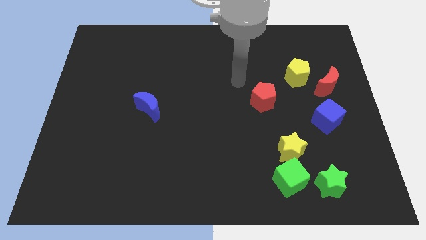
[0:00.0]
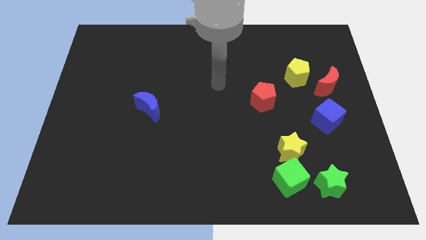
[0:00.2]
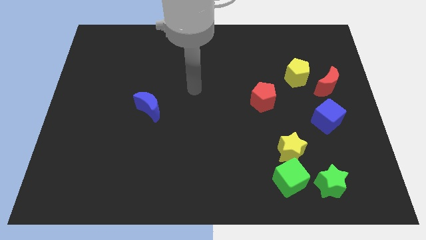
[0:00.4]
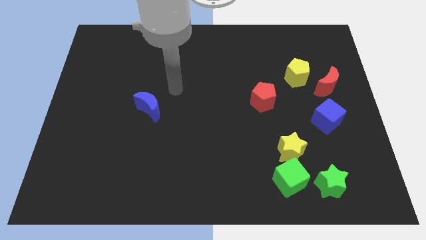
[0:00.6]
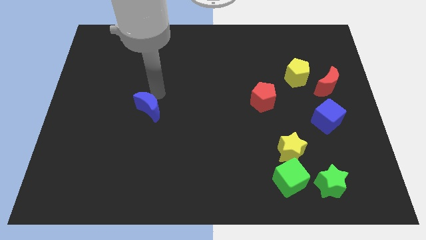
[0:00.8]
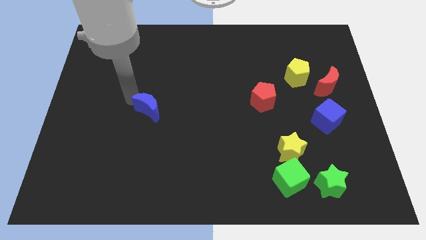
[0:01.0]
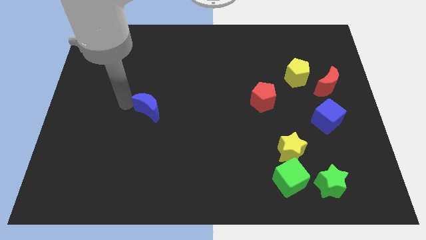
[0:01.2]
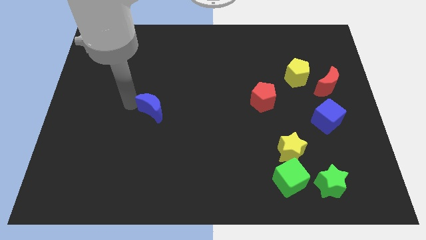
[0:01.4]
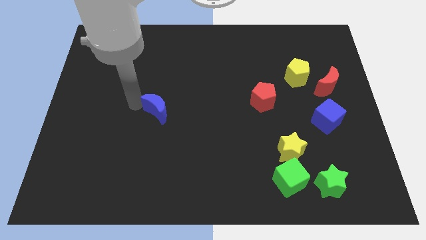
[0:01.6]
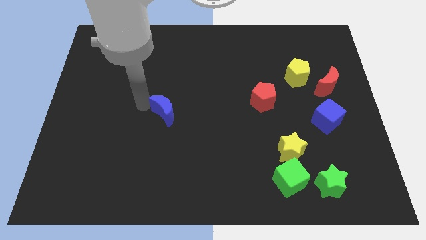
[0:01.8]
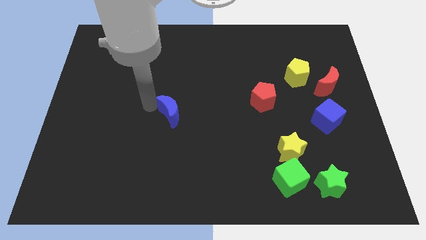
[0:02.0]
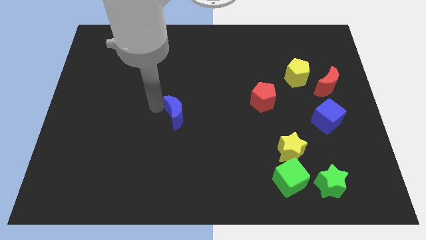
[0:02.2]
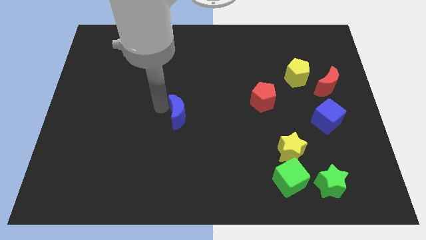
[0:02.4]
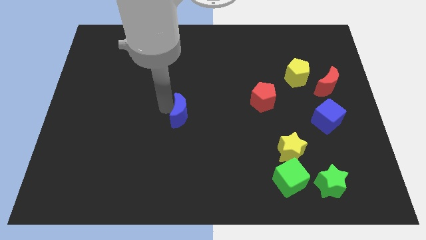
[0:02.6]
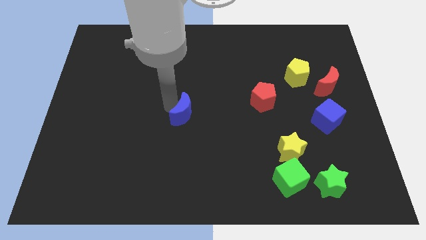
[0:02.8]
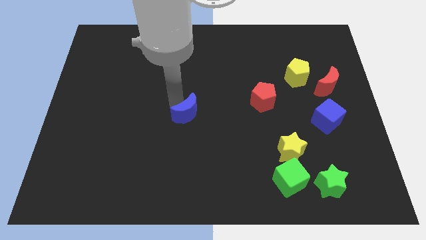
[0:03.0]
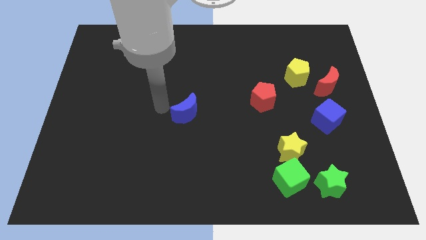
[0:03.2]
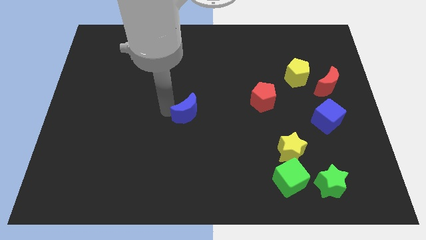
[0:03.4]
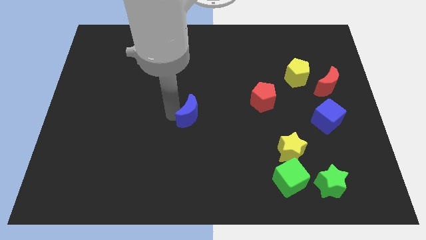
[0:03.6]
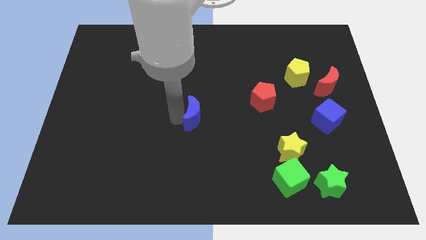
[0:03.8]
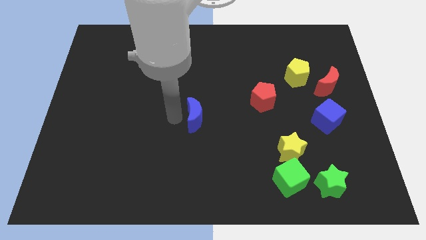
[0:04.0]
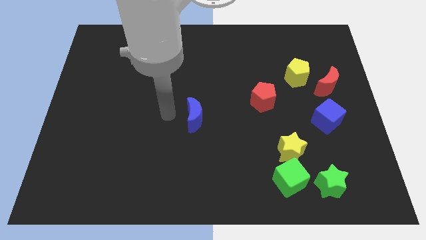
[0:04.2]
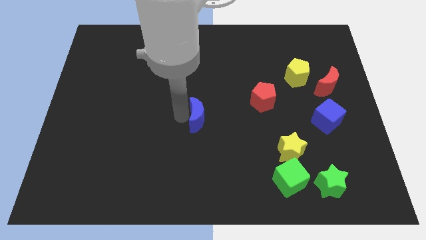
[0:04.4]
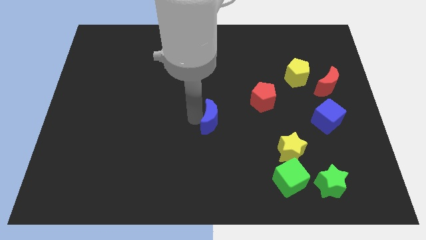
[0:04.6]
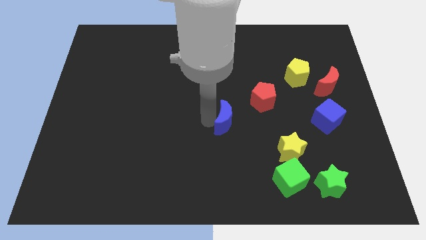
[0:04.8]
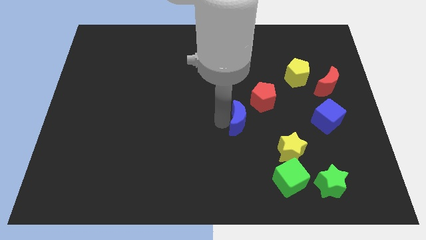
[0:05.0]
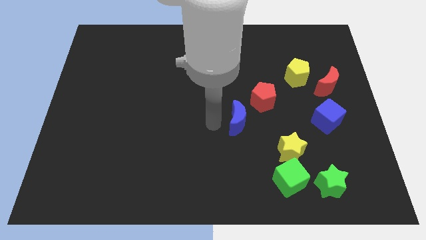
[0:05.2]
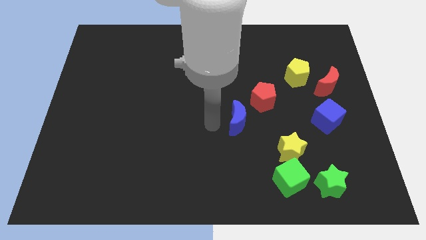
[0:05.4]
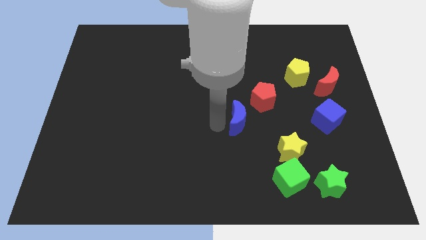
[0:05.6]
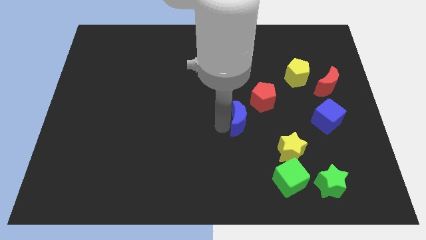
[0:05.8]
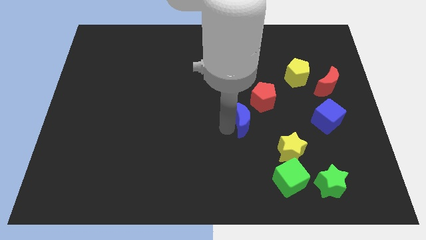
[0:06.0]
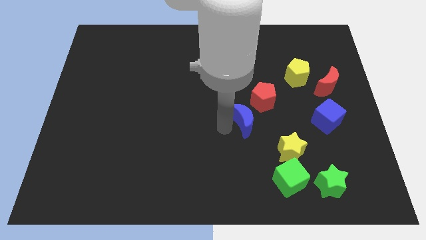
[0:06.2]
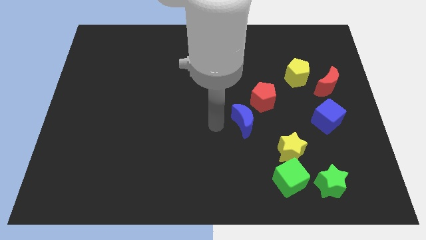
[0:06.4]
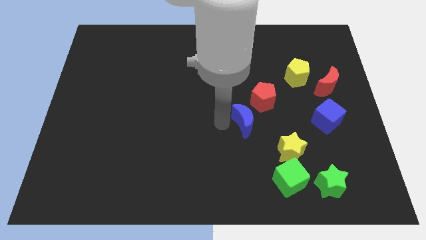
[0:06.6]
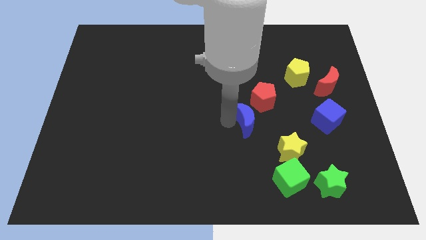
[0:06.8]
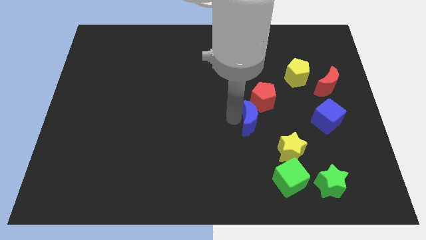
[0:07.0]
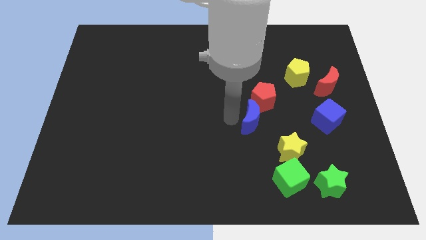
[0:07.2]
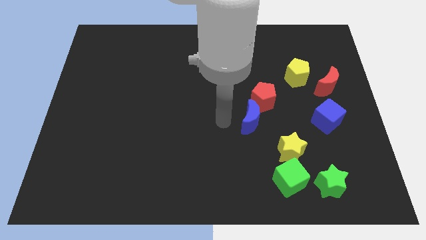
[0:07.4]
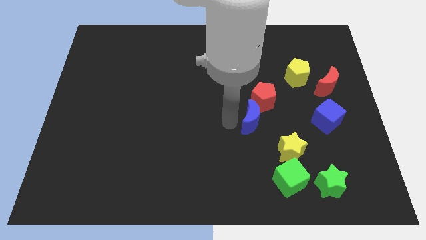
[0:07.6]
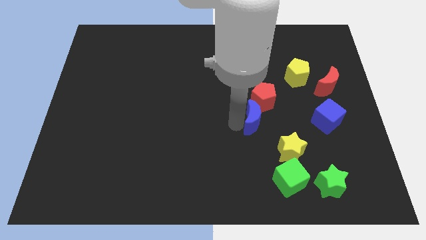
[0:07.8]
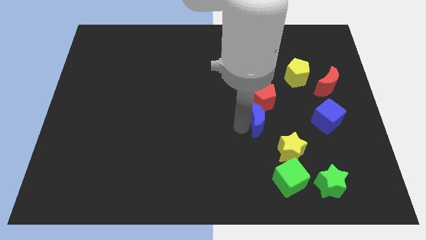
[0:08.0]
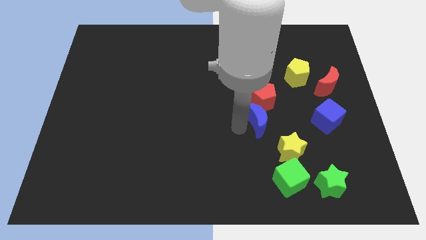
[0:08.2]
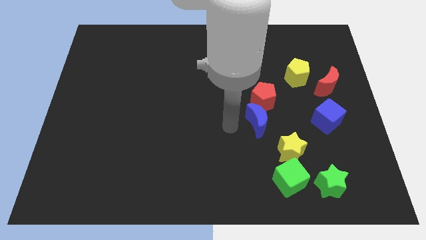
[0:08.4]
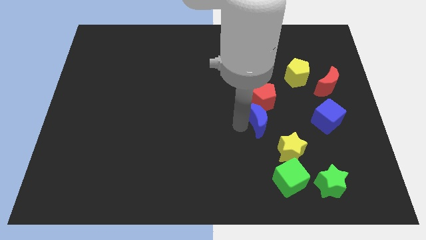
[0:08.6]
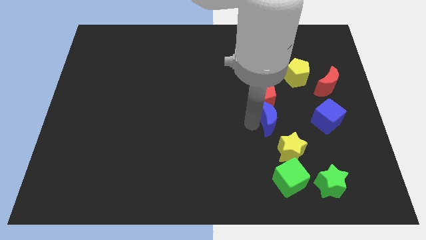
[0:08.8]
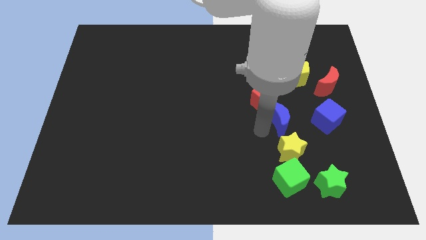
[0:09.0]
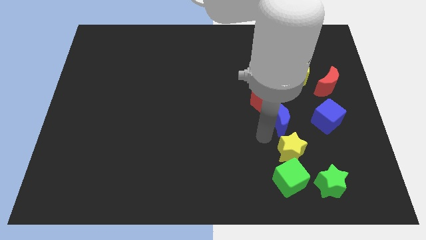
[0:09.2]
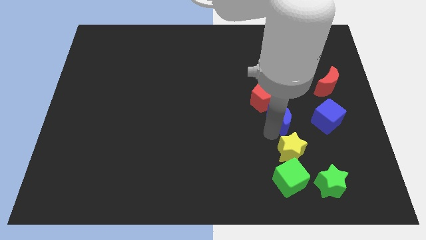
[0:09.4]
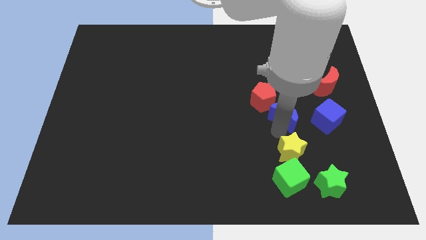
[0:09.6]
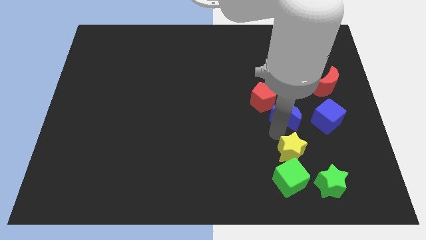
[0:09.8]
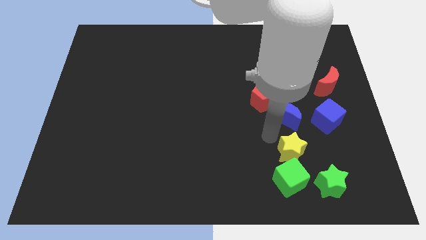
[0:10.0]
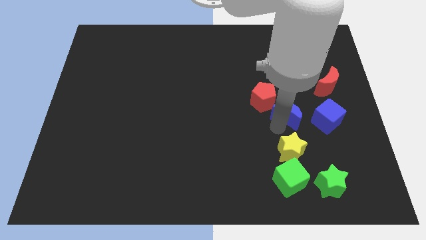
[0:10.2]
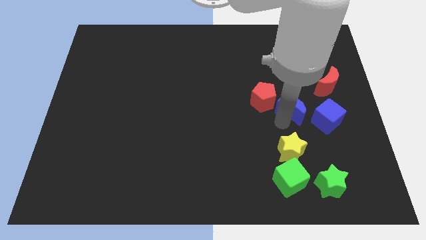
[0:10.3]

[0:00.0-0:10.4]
move the blue moon to the top left side of the blue cube

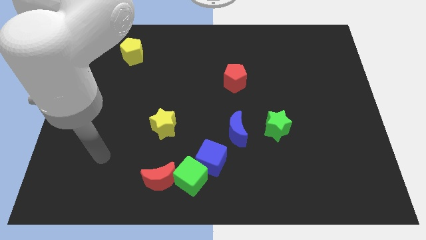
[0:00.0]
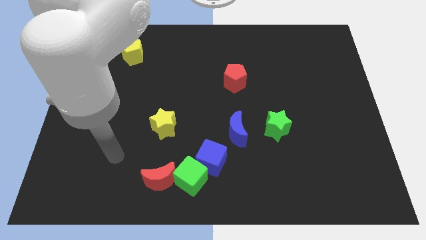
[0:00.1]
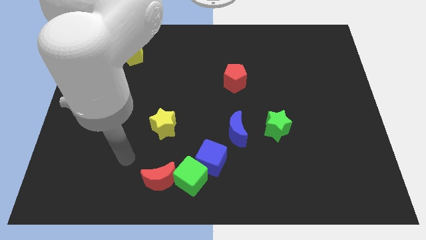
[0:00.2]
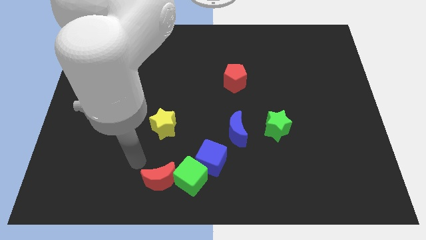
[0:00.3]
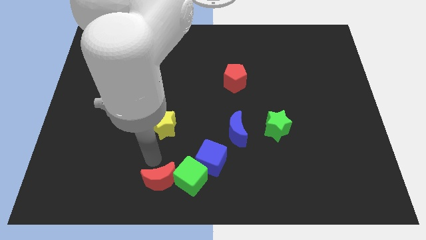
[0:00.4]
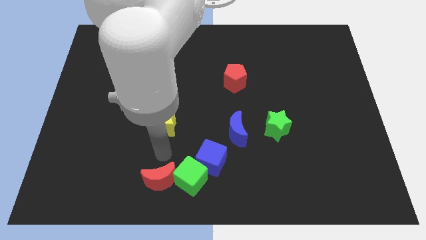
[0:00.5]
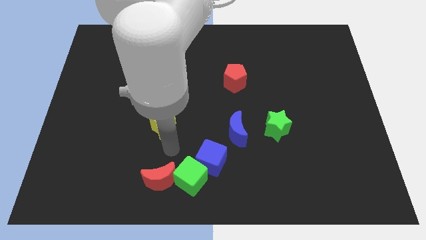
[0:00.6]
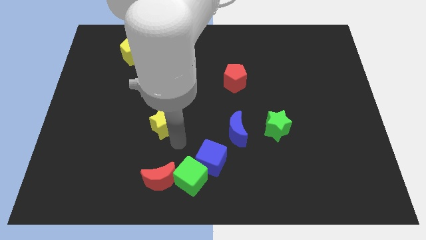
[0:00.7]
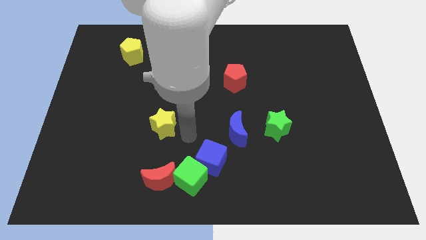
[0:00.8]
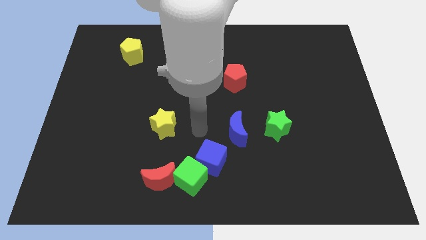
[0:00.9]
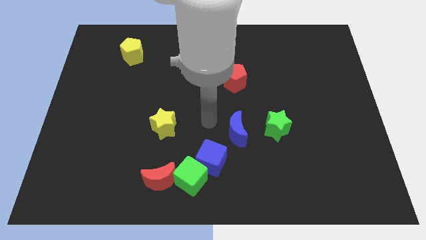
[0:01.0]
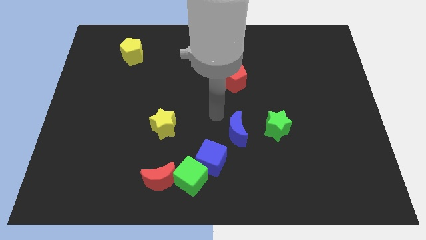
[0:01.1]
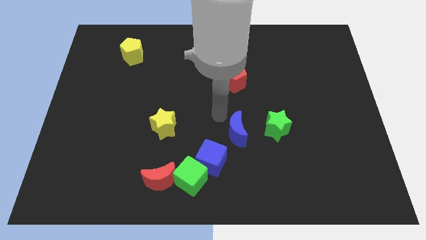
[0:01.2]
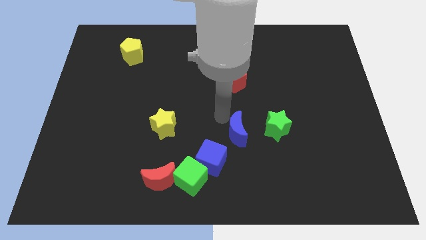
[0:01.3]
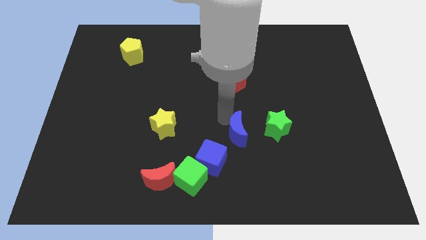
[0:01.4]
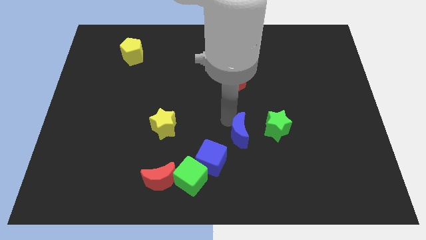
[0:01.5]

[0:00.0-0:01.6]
push the blue moon to the bottom left of the green star
